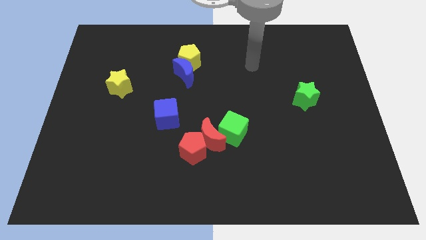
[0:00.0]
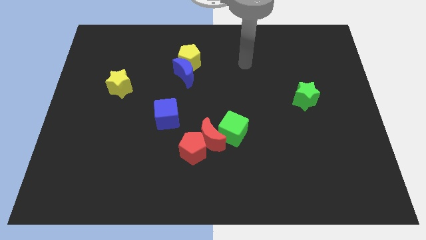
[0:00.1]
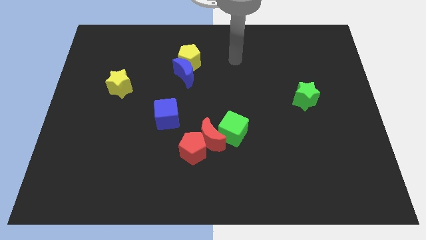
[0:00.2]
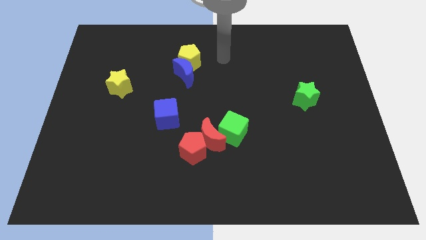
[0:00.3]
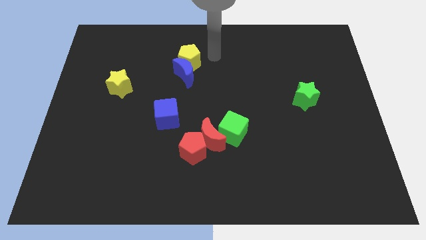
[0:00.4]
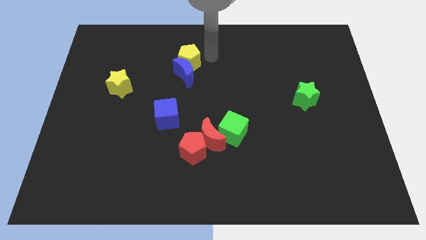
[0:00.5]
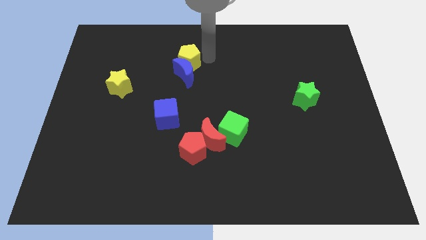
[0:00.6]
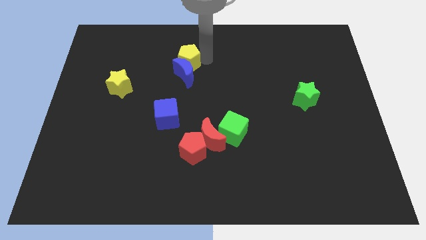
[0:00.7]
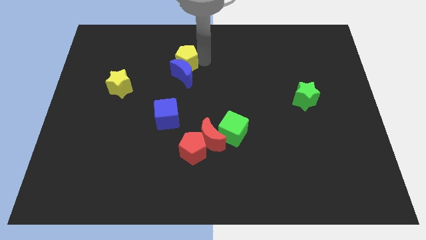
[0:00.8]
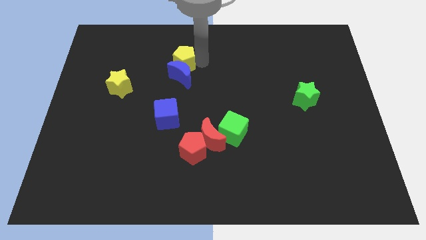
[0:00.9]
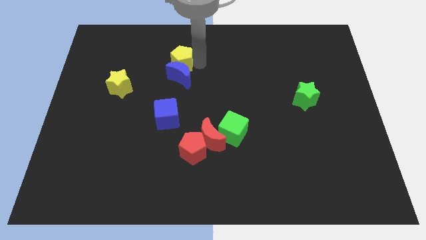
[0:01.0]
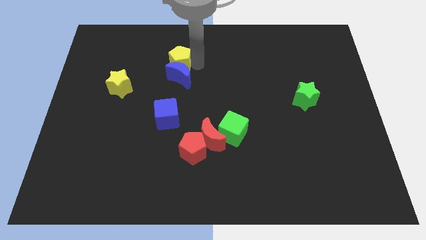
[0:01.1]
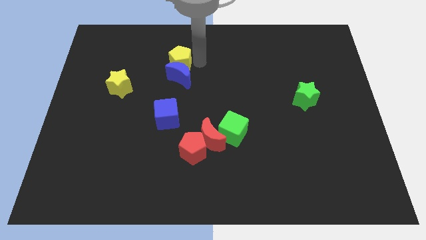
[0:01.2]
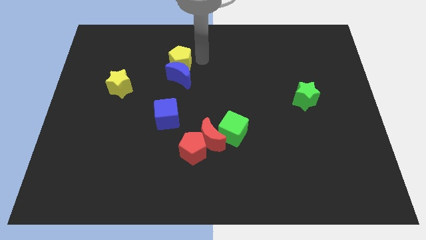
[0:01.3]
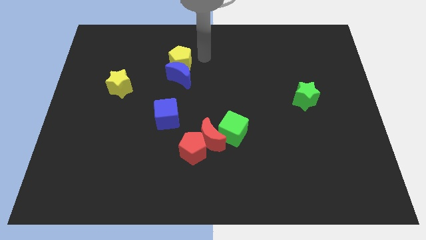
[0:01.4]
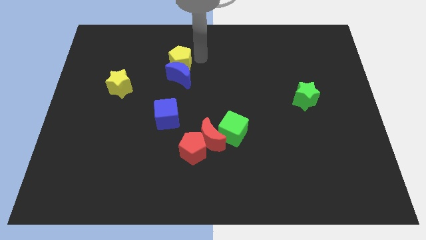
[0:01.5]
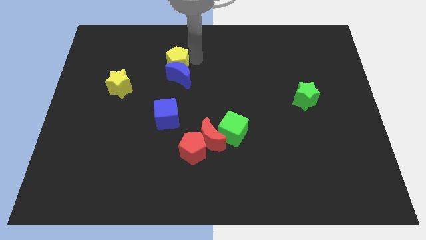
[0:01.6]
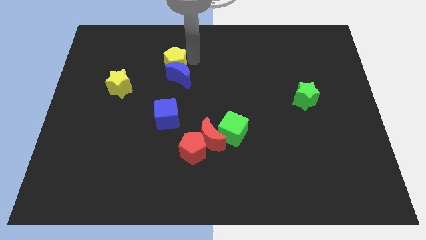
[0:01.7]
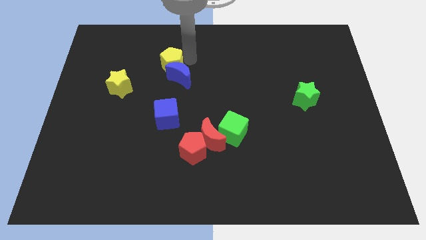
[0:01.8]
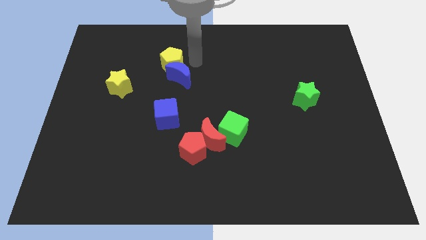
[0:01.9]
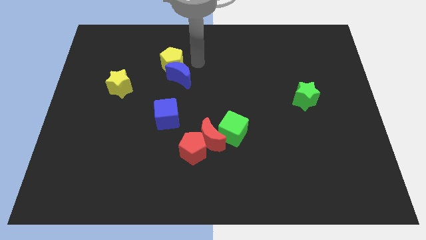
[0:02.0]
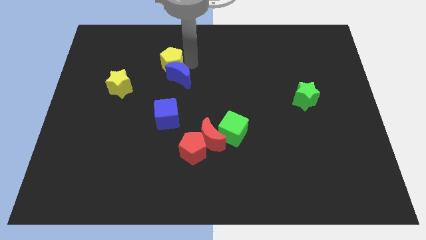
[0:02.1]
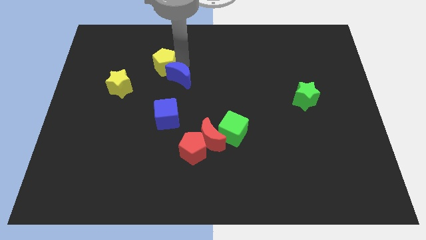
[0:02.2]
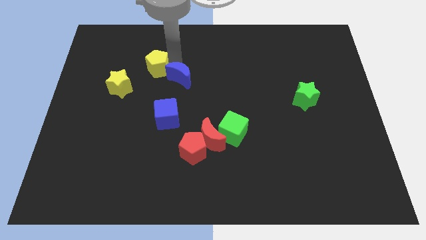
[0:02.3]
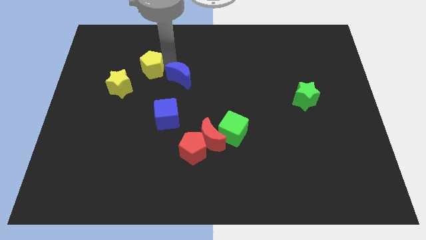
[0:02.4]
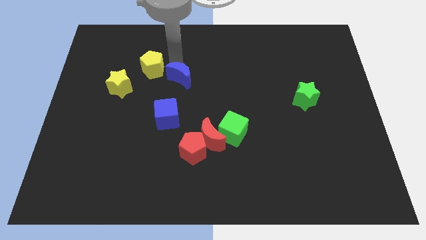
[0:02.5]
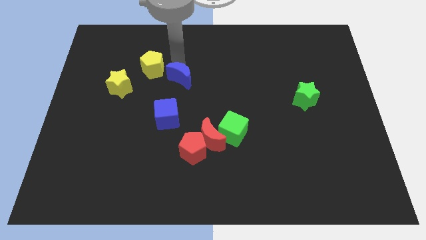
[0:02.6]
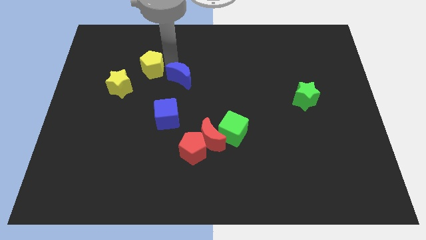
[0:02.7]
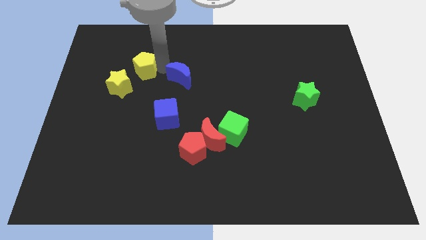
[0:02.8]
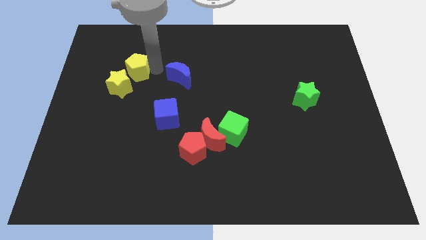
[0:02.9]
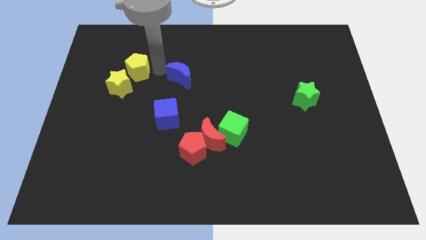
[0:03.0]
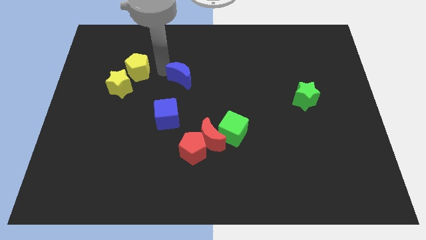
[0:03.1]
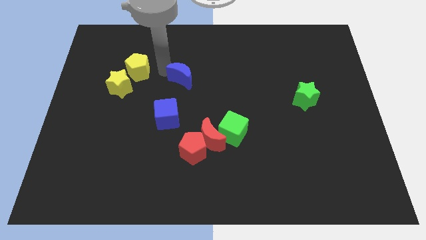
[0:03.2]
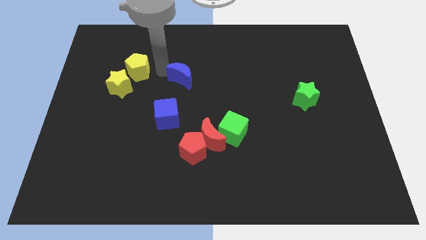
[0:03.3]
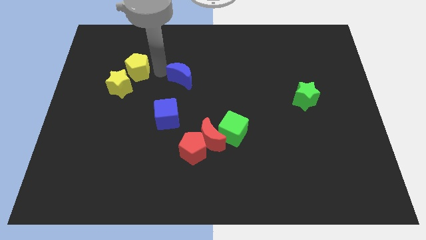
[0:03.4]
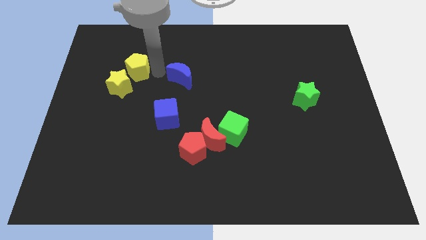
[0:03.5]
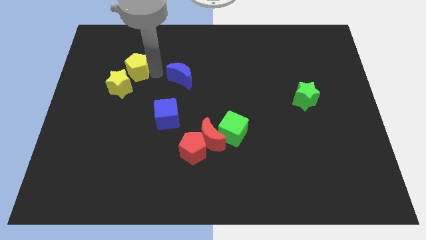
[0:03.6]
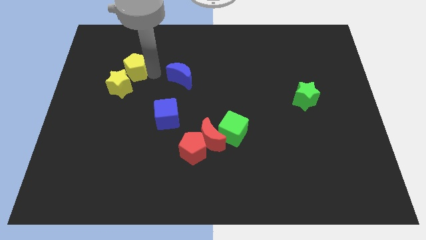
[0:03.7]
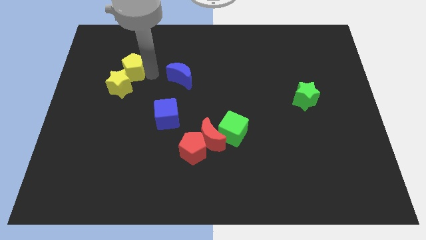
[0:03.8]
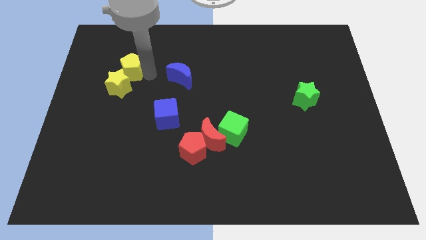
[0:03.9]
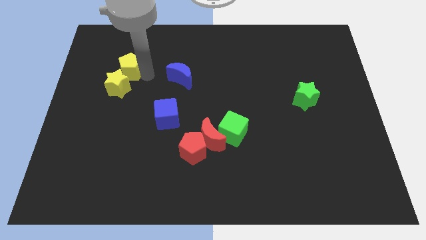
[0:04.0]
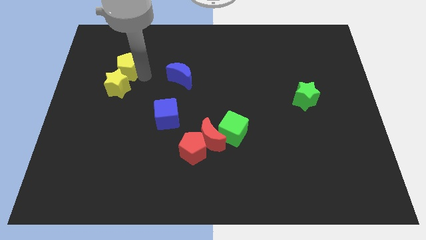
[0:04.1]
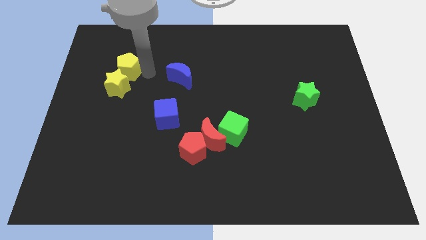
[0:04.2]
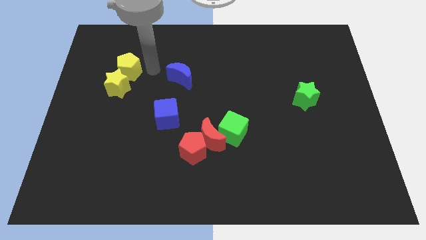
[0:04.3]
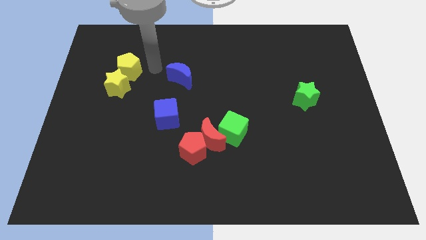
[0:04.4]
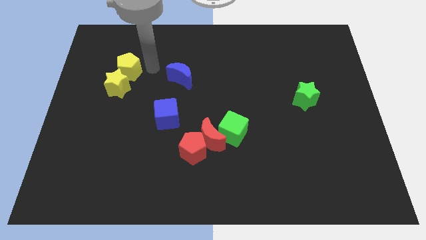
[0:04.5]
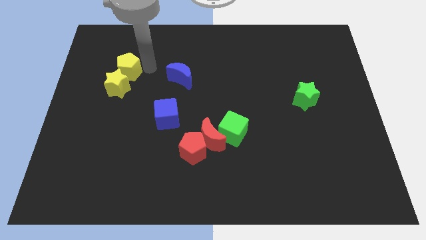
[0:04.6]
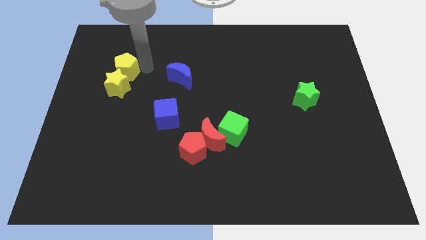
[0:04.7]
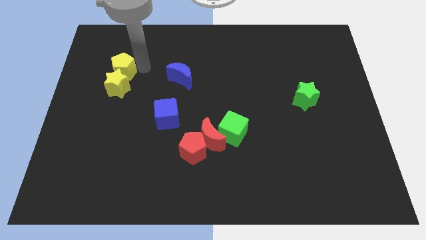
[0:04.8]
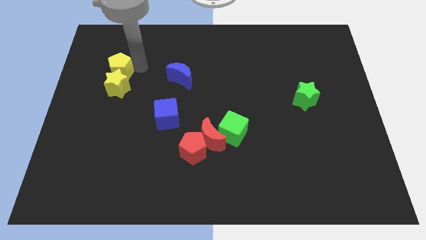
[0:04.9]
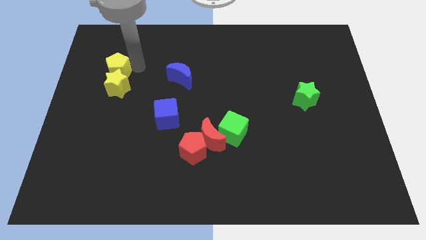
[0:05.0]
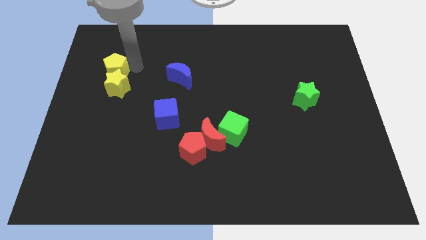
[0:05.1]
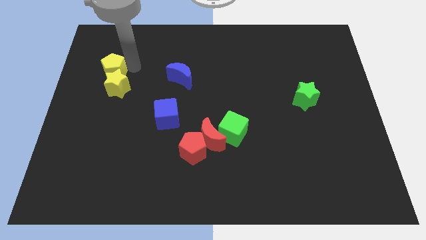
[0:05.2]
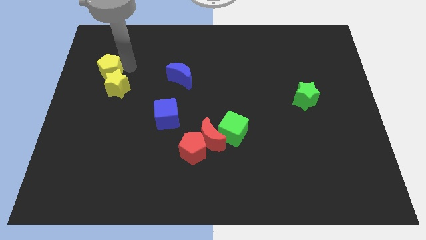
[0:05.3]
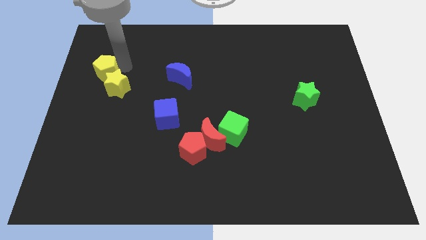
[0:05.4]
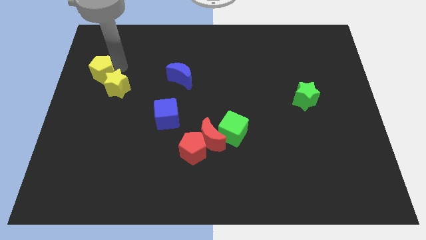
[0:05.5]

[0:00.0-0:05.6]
move the yellow pentagon to the left side of the board
